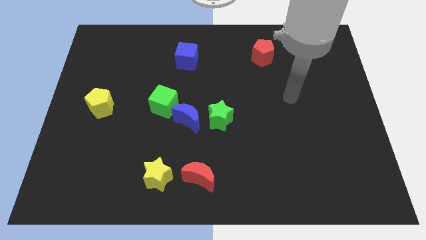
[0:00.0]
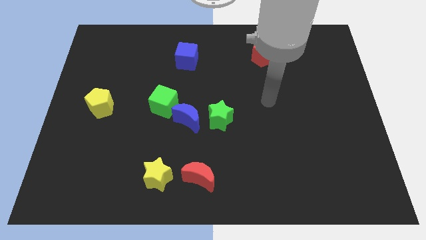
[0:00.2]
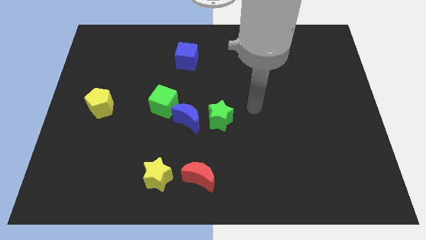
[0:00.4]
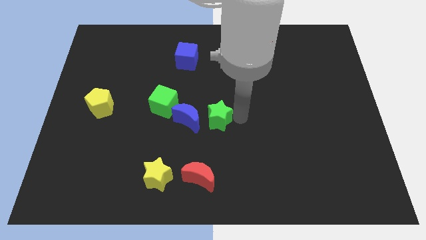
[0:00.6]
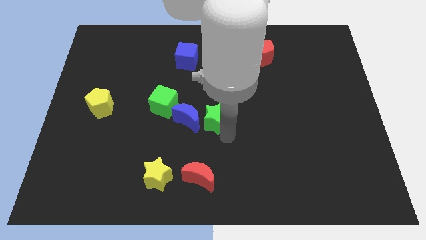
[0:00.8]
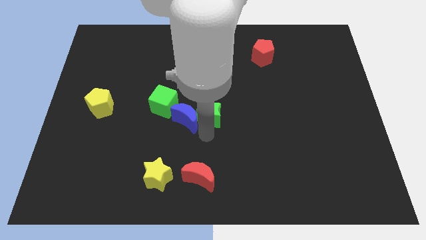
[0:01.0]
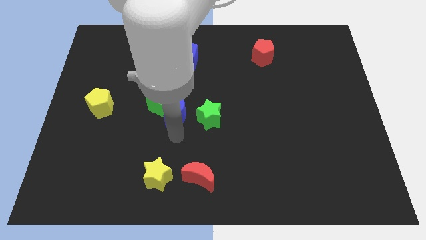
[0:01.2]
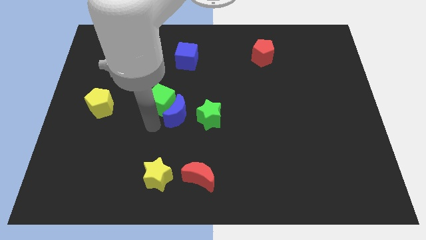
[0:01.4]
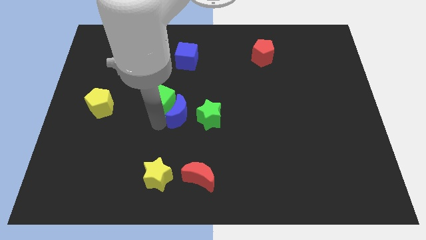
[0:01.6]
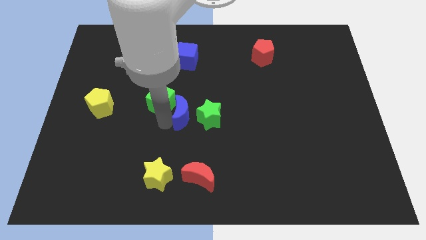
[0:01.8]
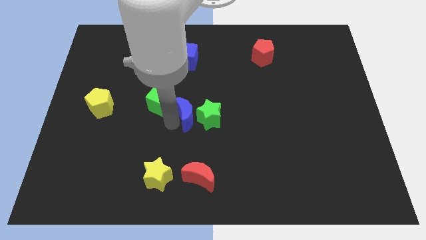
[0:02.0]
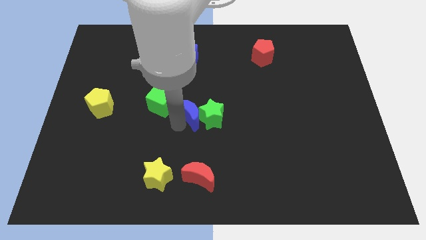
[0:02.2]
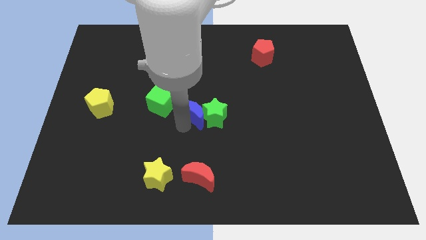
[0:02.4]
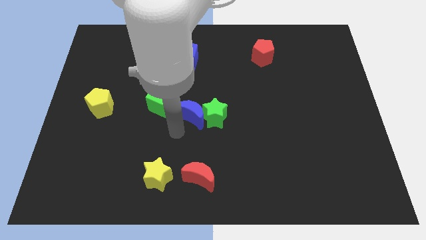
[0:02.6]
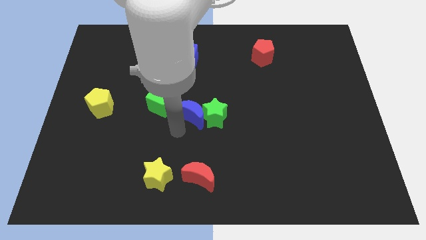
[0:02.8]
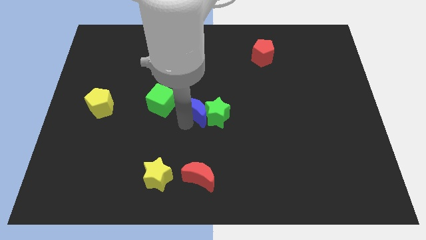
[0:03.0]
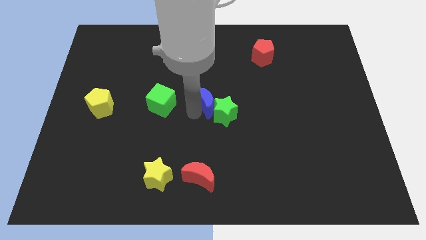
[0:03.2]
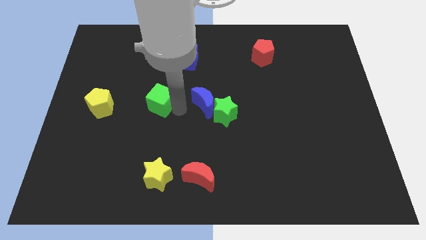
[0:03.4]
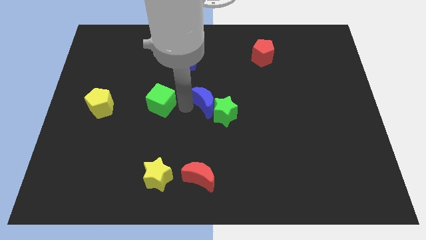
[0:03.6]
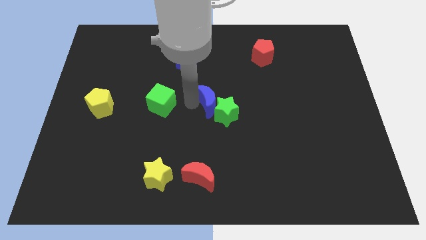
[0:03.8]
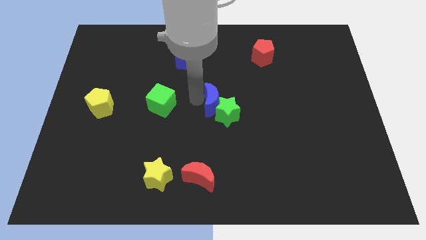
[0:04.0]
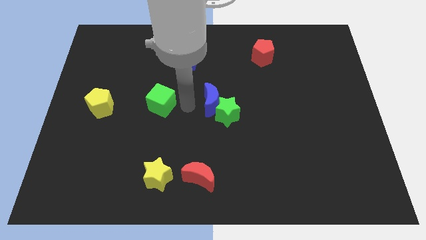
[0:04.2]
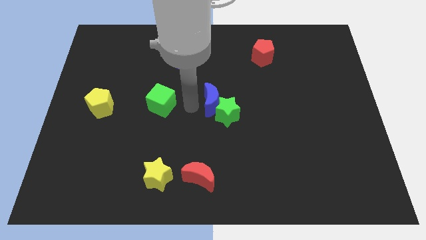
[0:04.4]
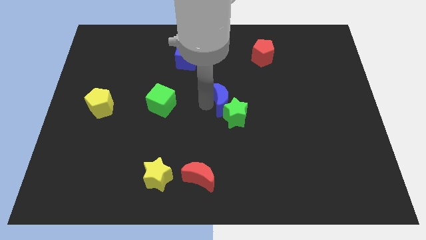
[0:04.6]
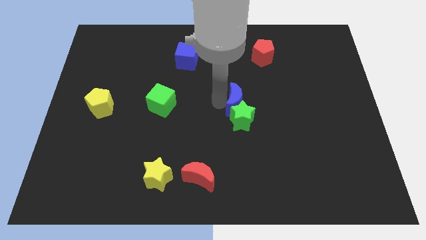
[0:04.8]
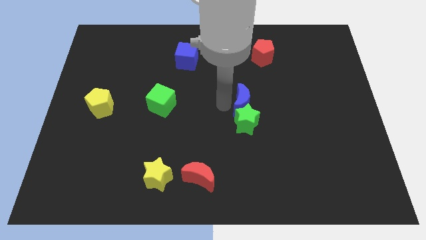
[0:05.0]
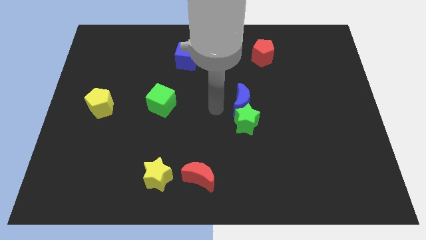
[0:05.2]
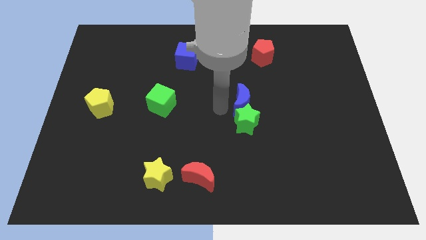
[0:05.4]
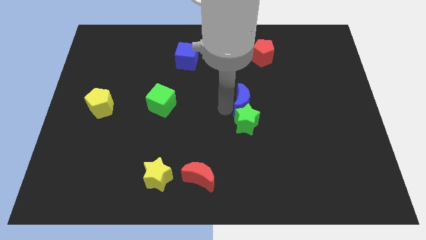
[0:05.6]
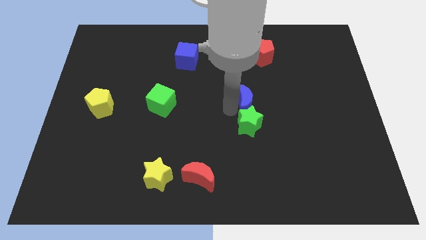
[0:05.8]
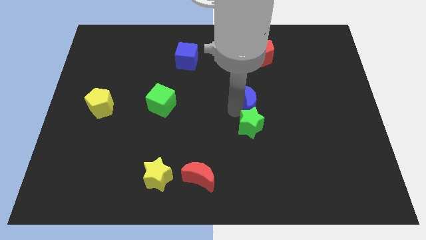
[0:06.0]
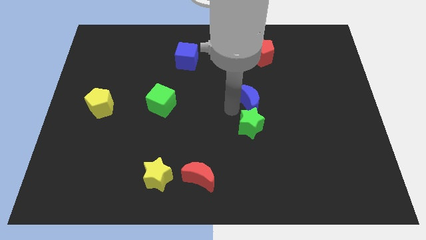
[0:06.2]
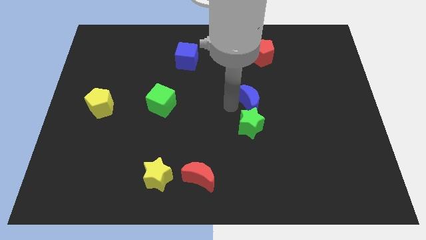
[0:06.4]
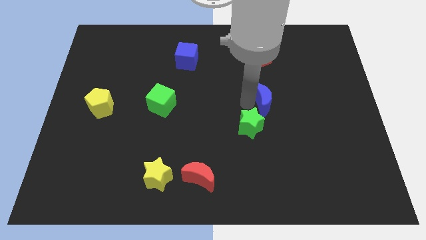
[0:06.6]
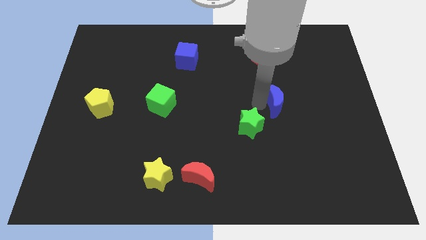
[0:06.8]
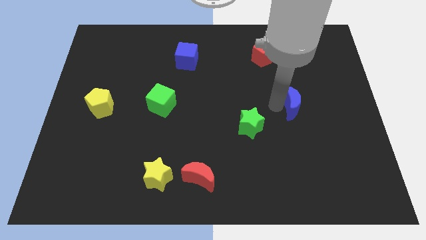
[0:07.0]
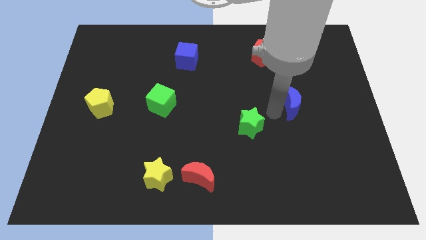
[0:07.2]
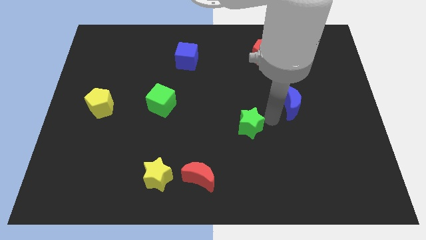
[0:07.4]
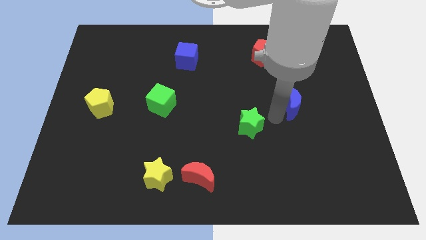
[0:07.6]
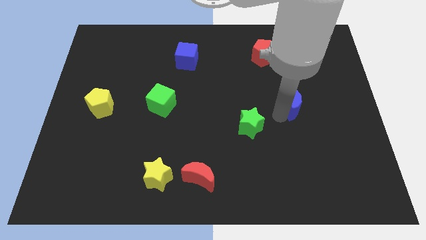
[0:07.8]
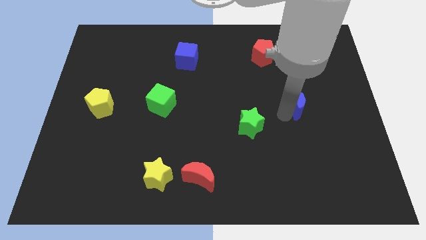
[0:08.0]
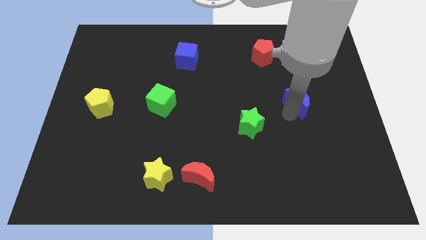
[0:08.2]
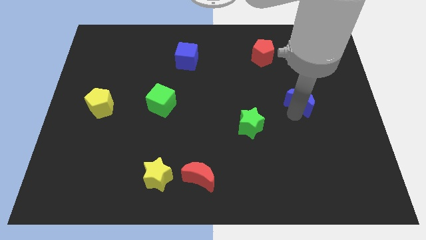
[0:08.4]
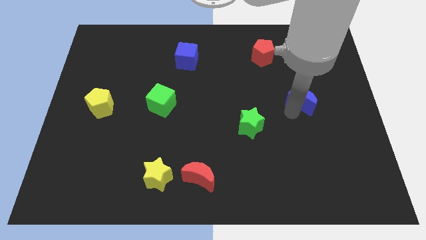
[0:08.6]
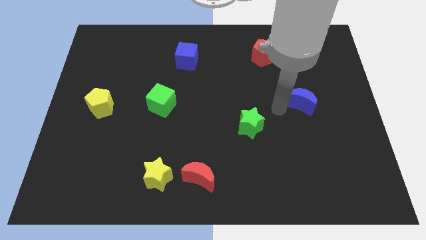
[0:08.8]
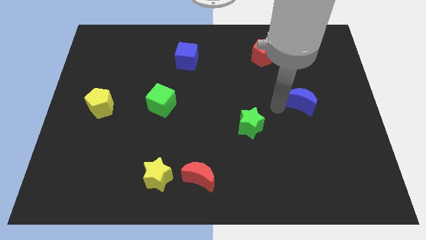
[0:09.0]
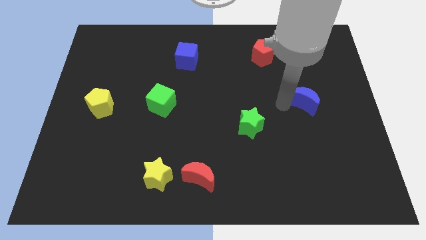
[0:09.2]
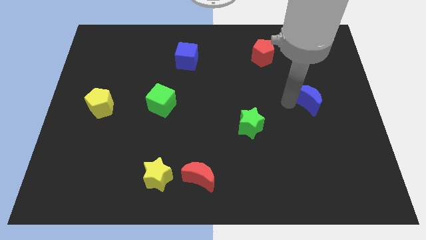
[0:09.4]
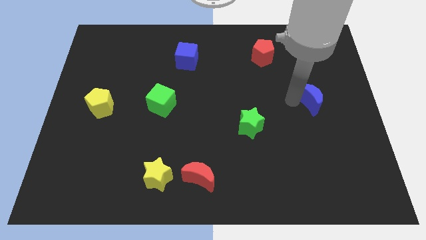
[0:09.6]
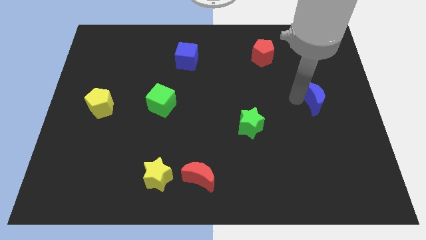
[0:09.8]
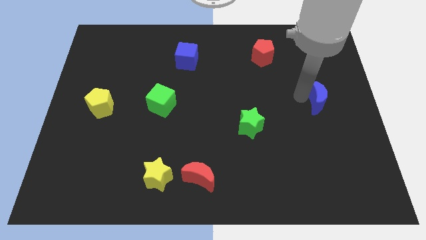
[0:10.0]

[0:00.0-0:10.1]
push the blue moon to the right side of the board

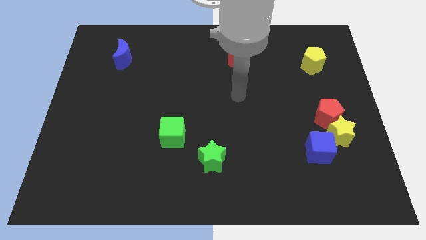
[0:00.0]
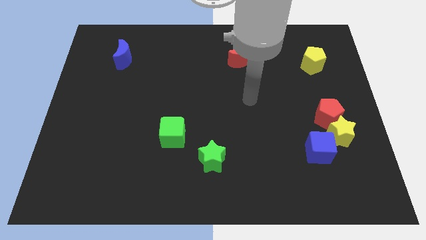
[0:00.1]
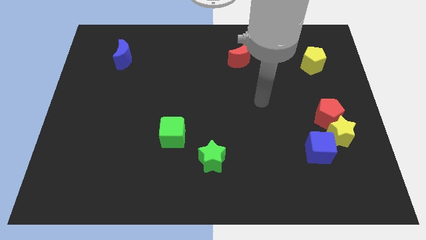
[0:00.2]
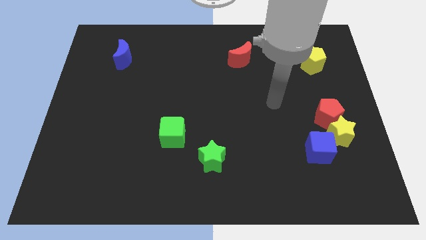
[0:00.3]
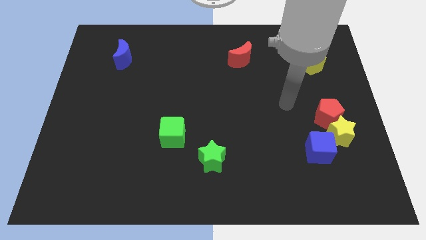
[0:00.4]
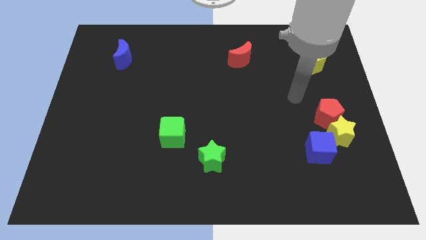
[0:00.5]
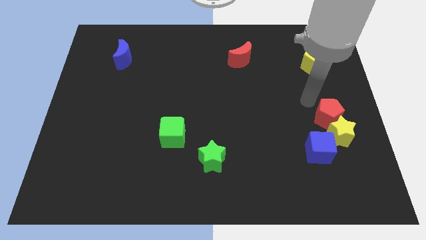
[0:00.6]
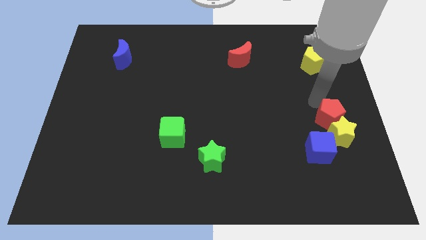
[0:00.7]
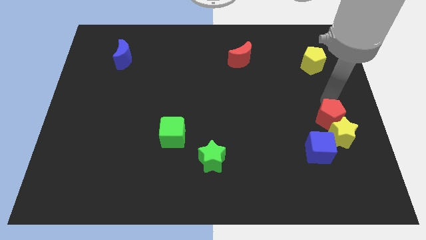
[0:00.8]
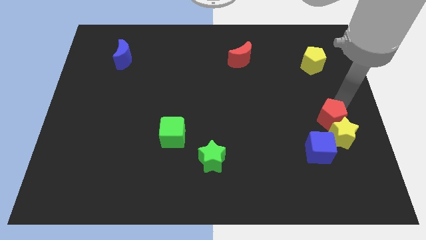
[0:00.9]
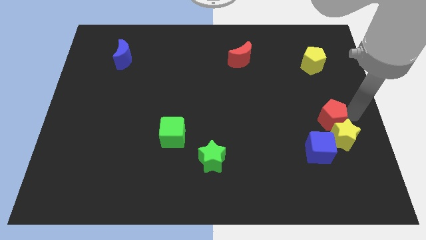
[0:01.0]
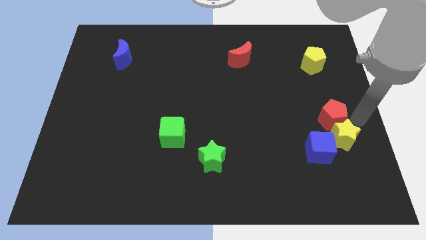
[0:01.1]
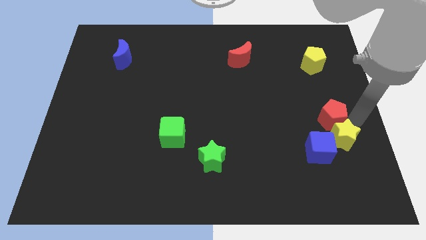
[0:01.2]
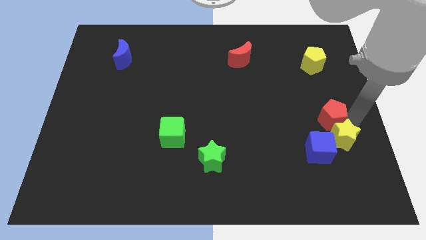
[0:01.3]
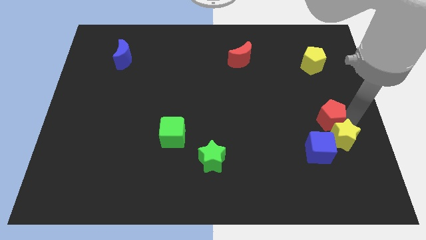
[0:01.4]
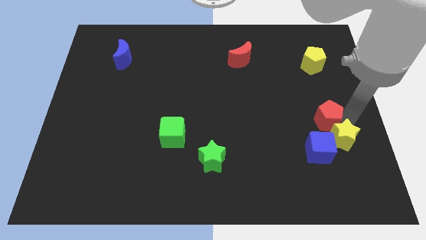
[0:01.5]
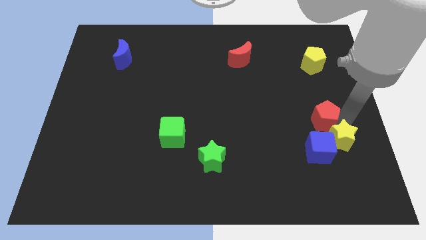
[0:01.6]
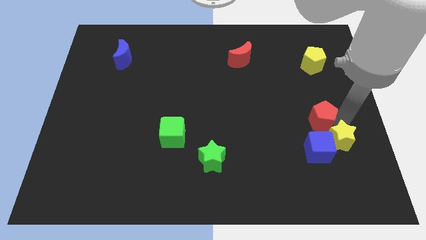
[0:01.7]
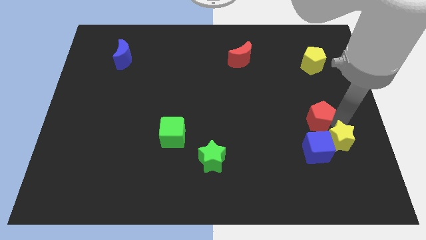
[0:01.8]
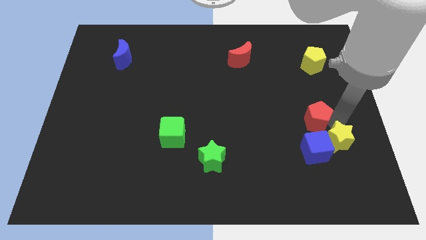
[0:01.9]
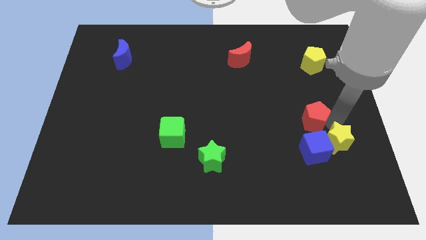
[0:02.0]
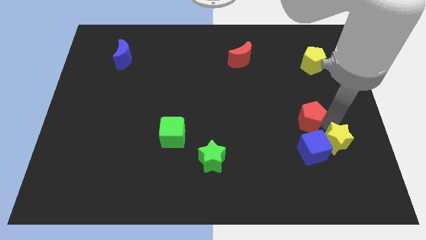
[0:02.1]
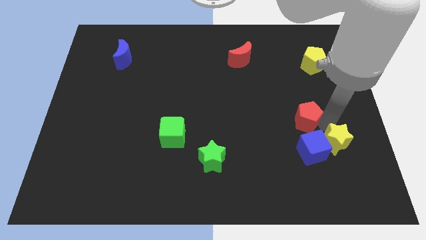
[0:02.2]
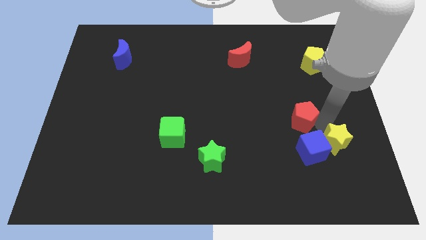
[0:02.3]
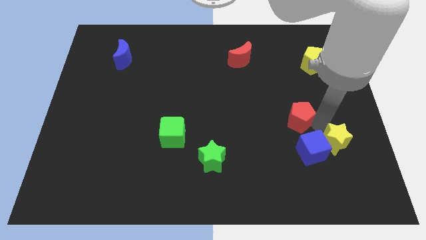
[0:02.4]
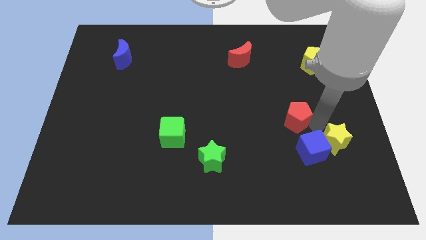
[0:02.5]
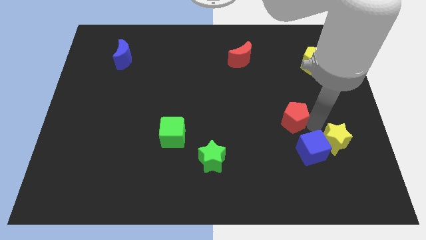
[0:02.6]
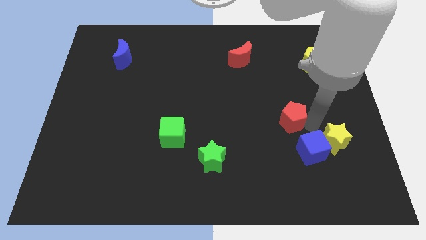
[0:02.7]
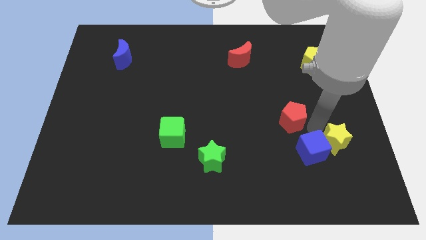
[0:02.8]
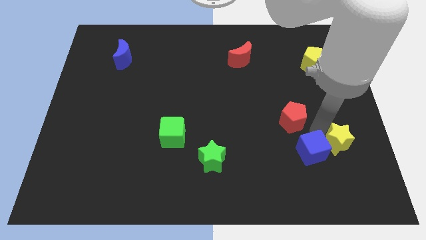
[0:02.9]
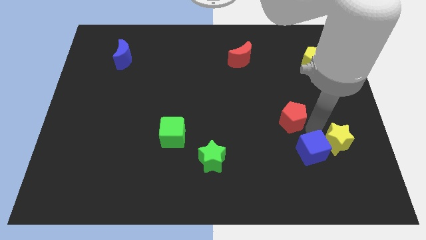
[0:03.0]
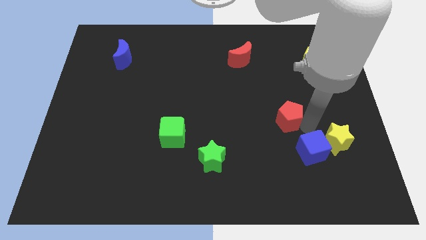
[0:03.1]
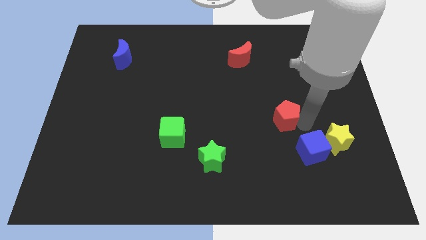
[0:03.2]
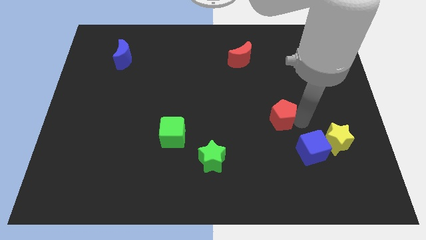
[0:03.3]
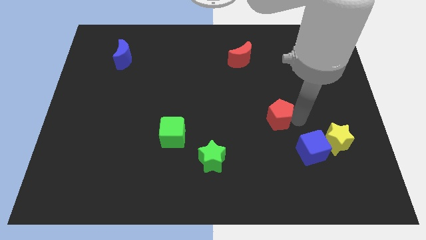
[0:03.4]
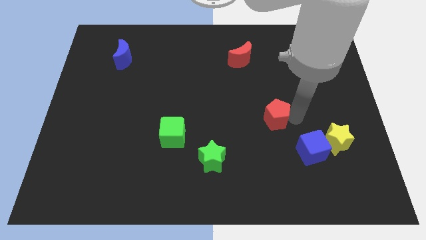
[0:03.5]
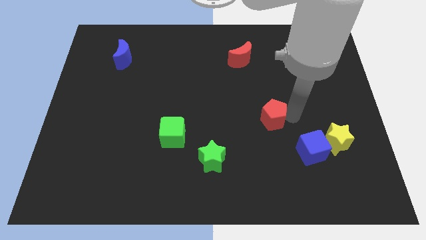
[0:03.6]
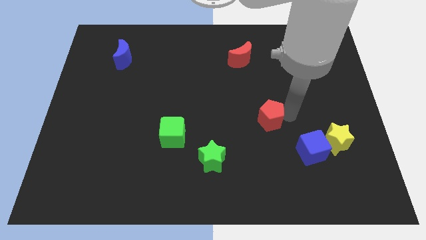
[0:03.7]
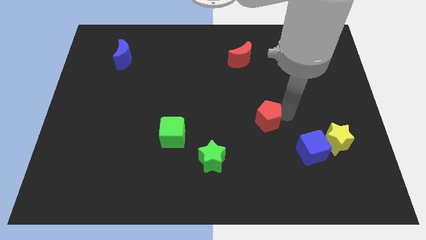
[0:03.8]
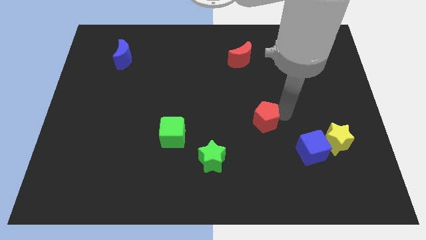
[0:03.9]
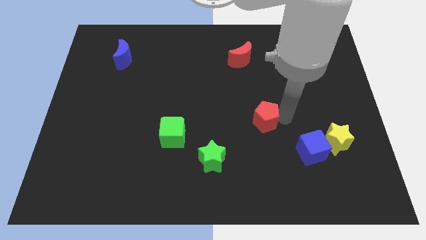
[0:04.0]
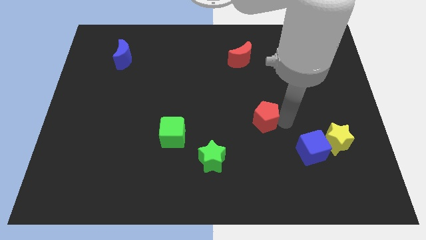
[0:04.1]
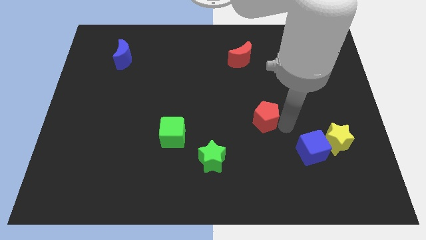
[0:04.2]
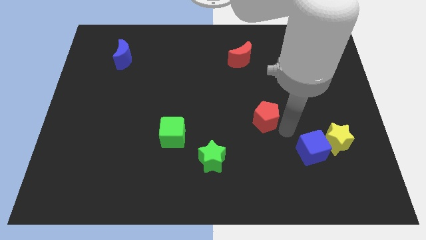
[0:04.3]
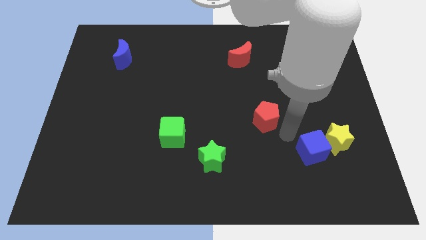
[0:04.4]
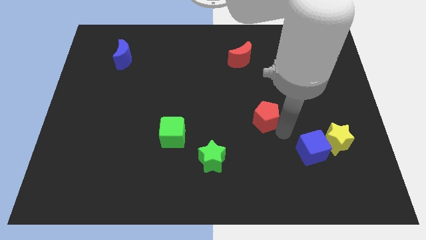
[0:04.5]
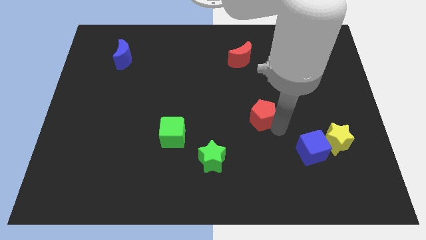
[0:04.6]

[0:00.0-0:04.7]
slide the red pentagon to the middle
